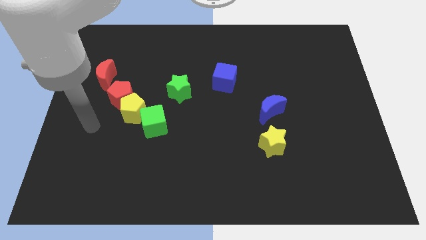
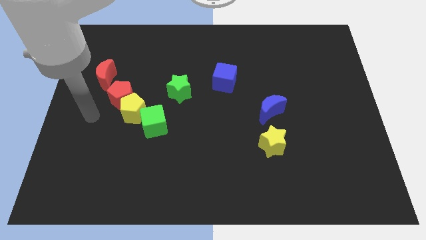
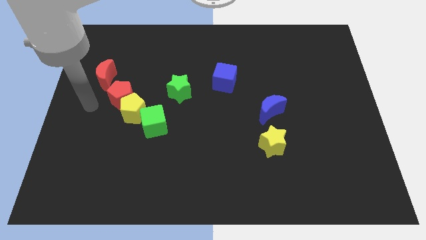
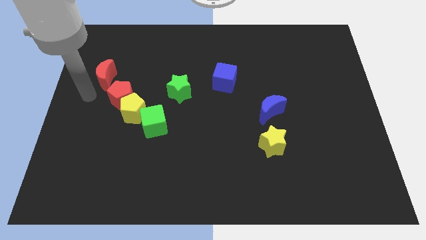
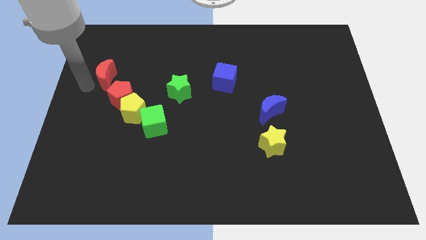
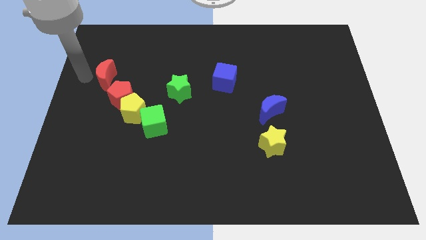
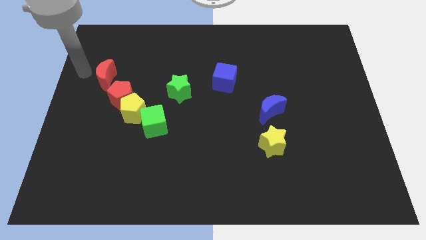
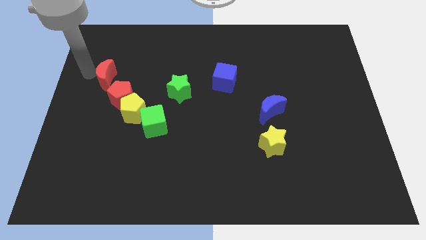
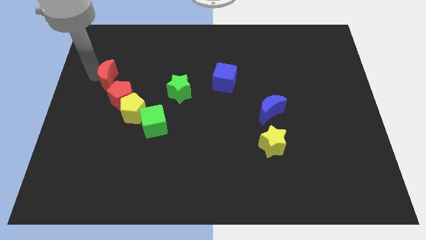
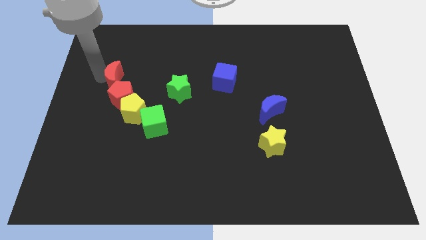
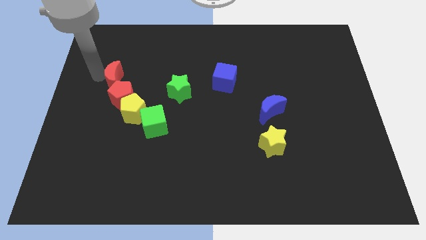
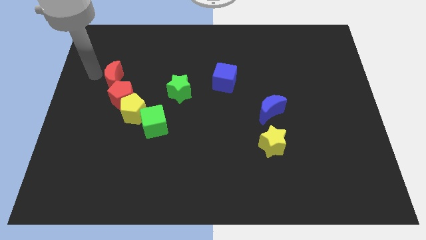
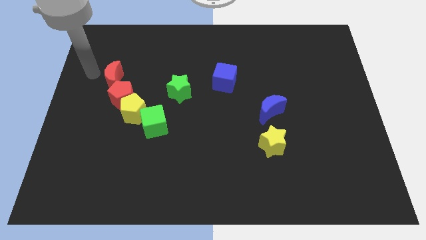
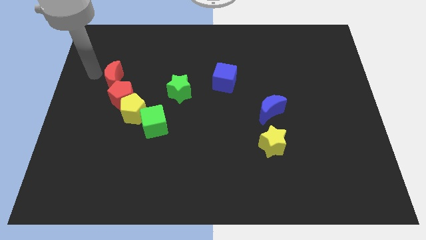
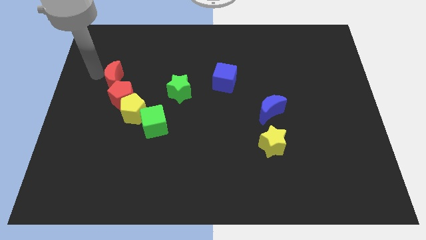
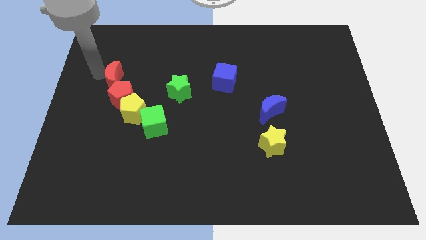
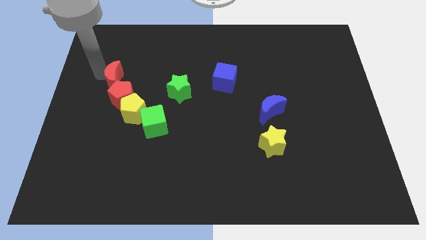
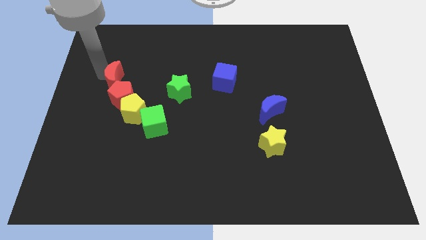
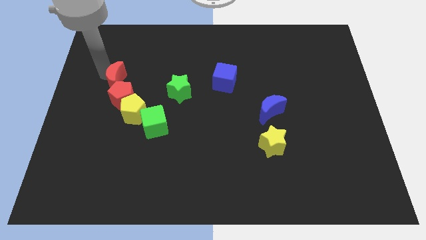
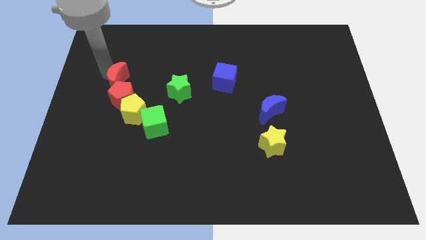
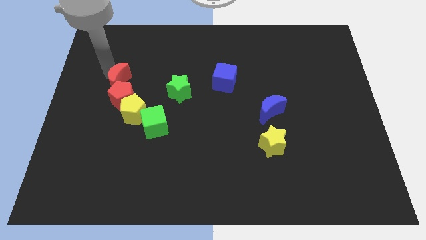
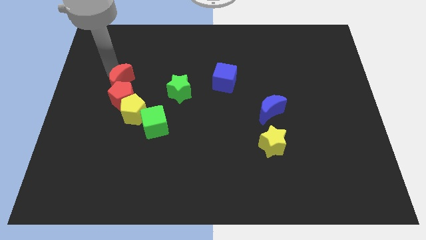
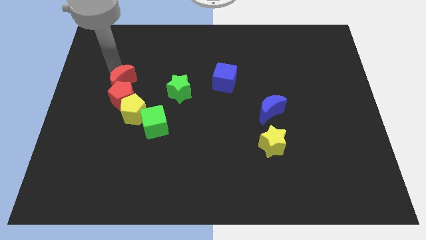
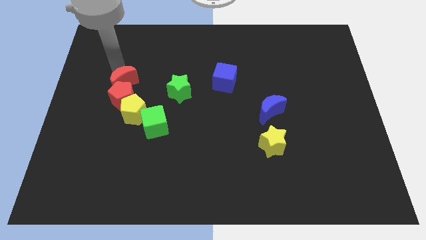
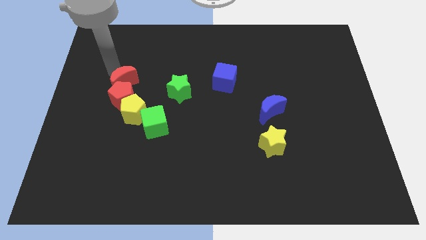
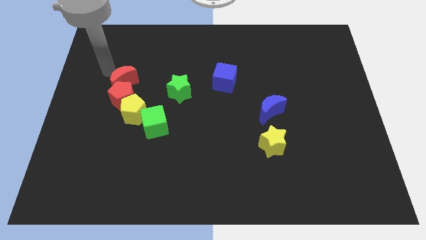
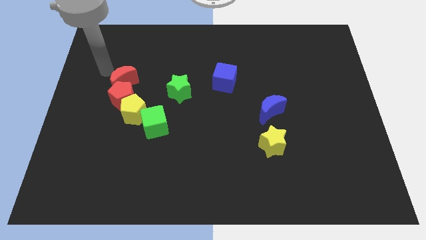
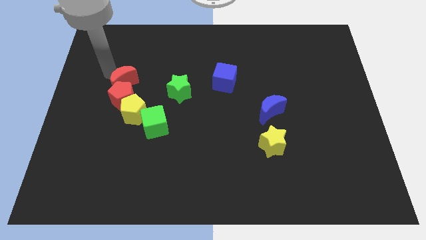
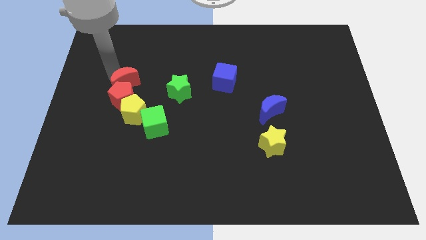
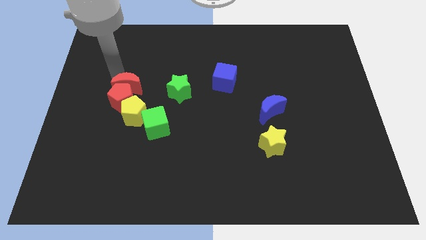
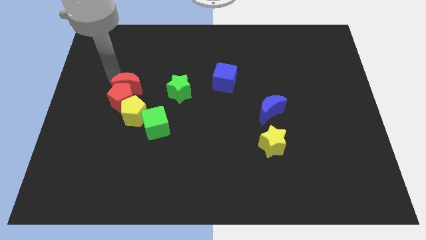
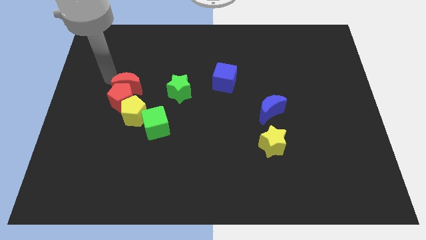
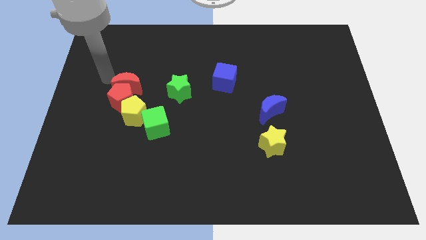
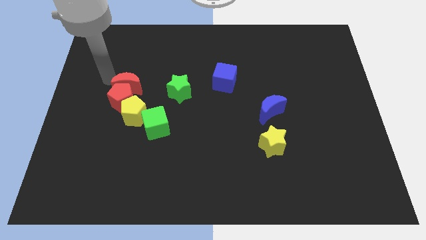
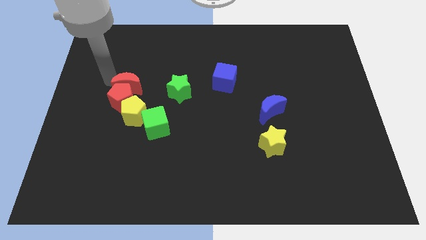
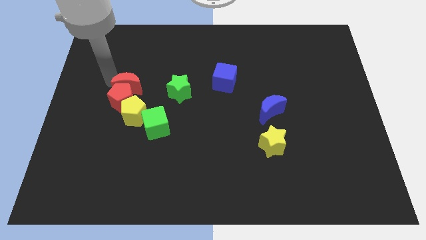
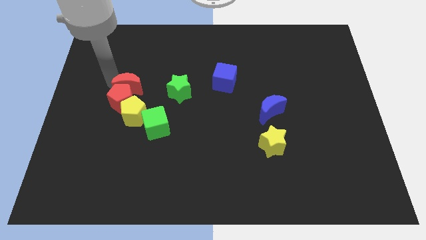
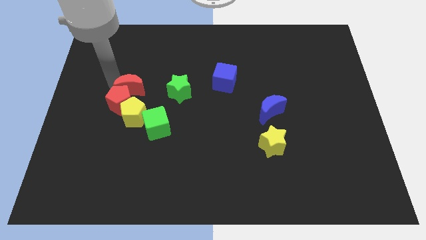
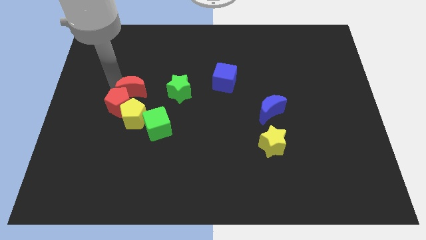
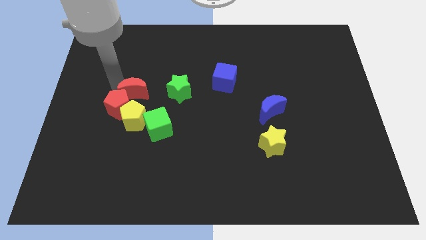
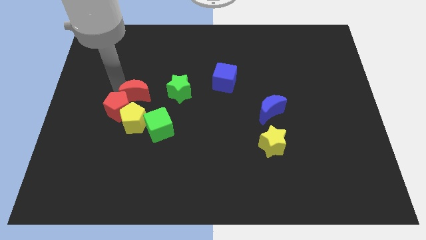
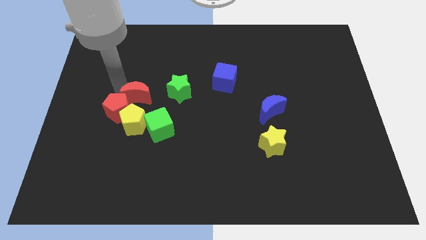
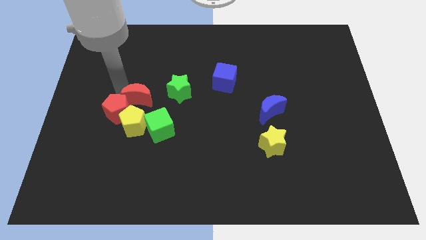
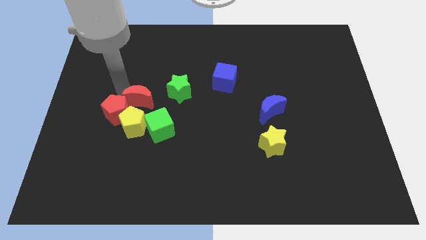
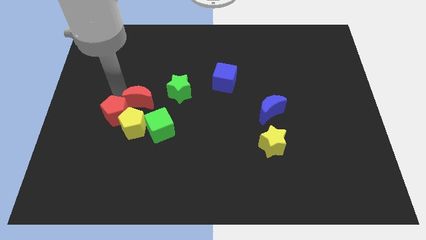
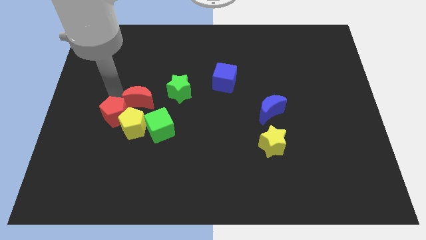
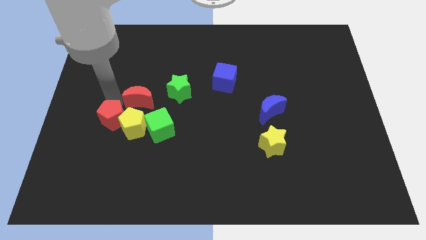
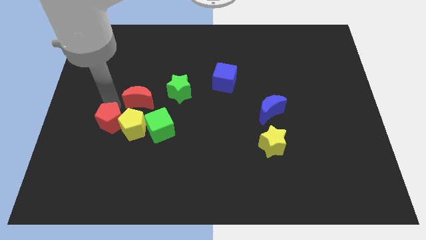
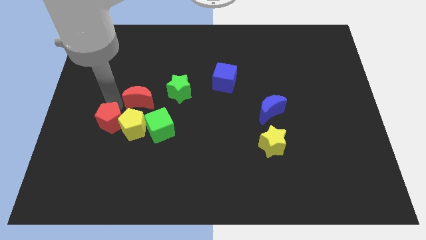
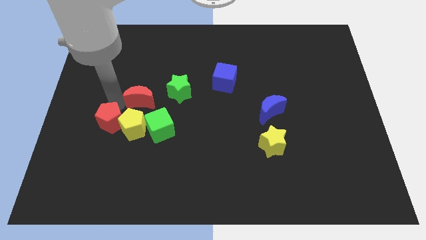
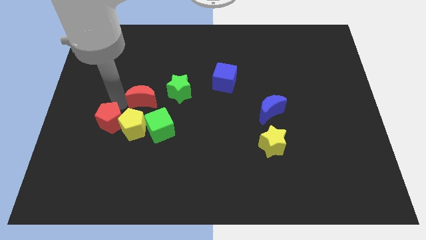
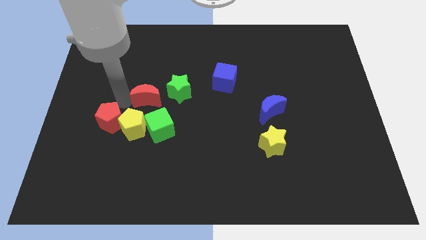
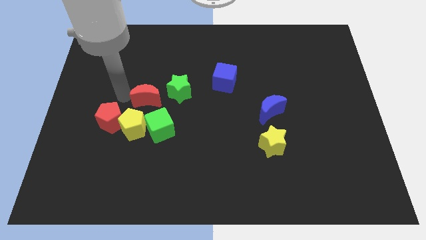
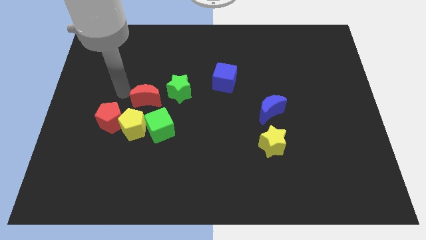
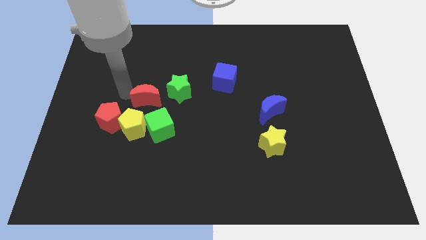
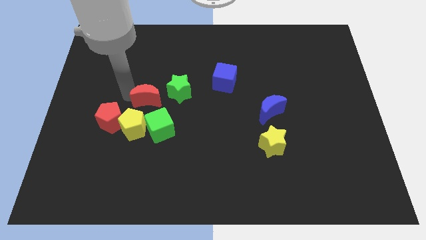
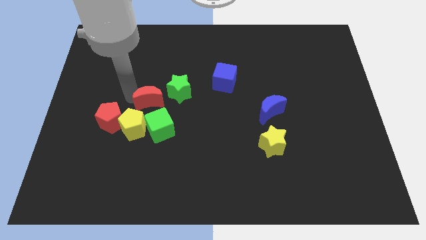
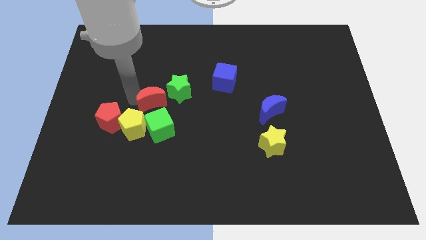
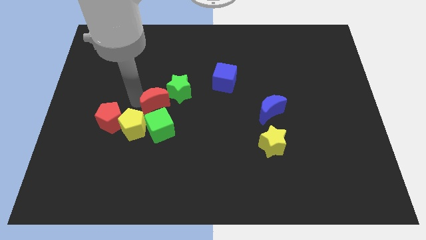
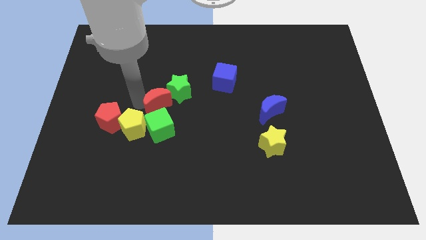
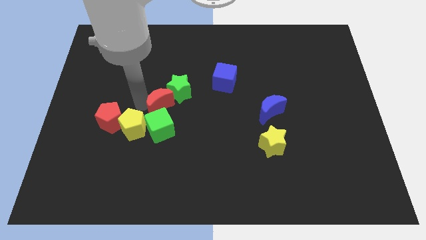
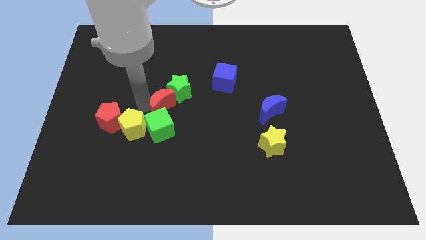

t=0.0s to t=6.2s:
put the red moon to the top right of the green cube

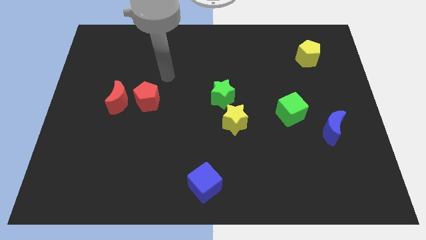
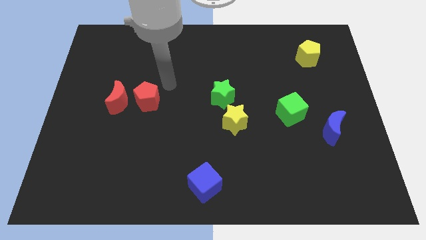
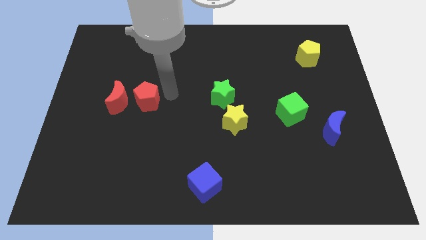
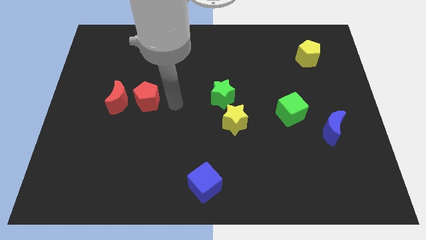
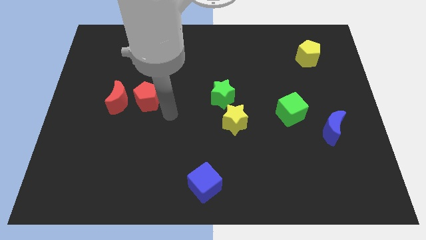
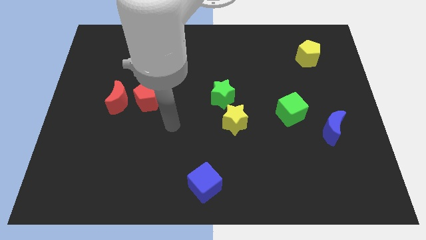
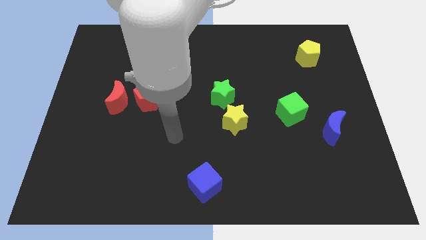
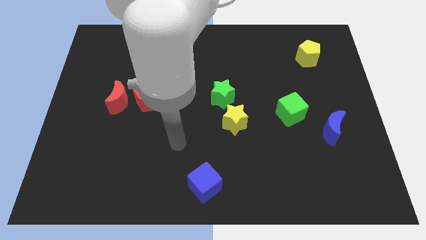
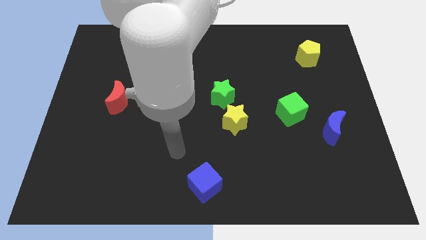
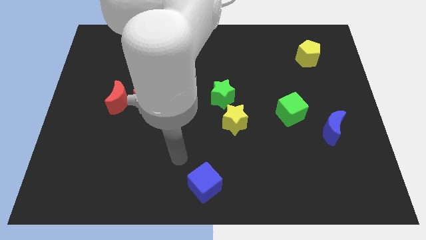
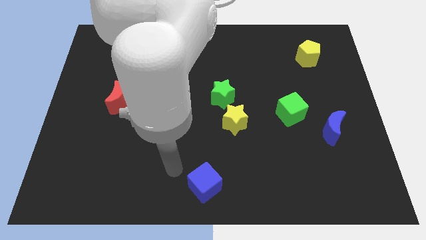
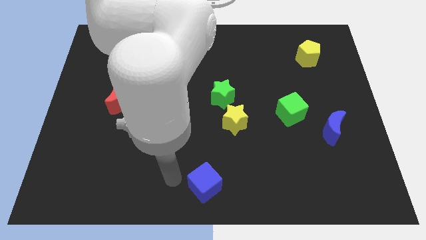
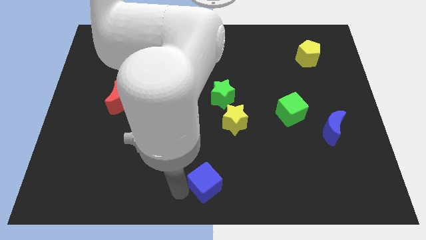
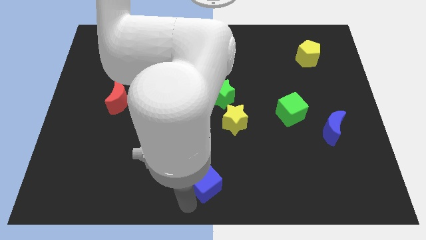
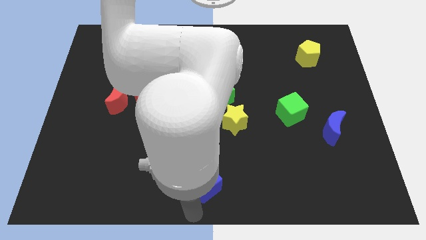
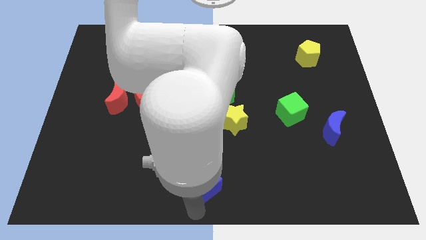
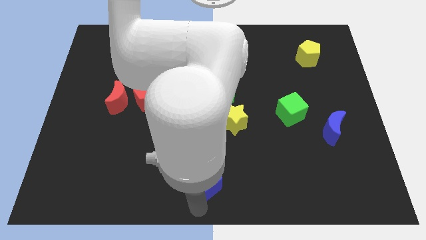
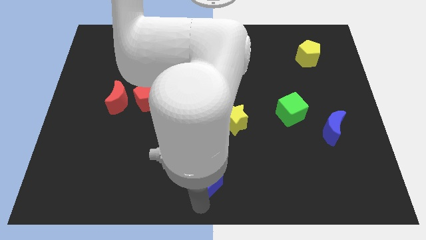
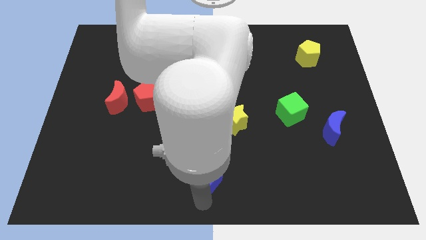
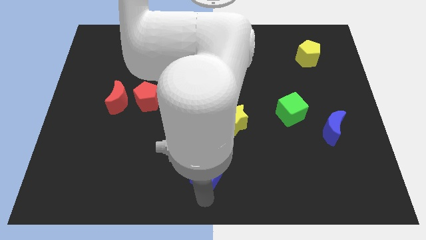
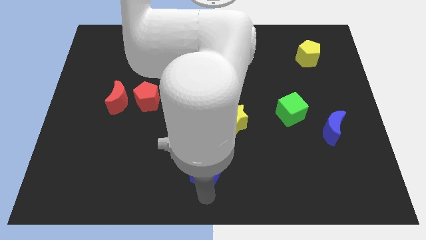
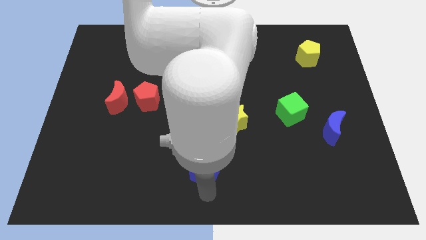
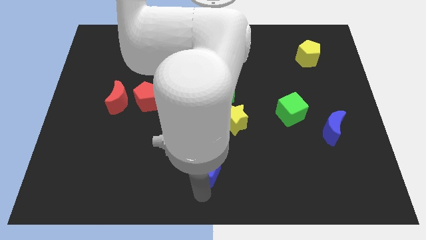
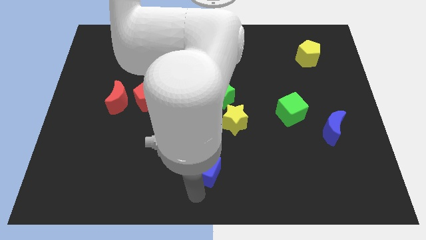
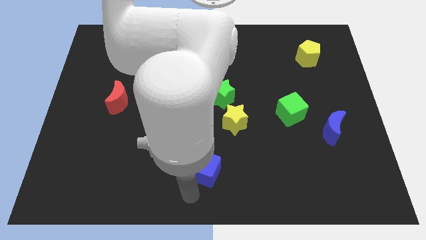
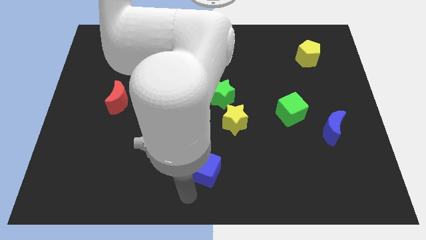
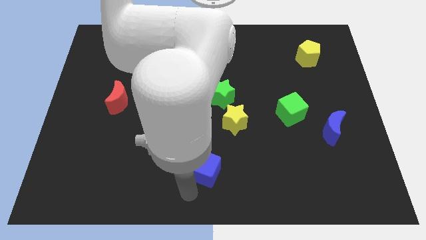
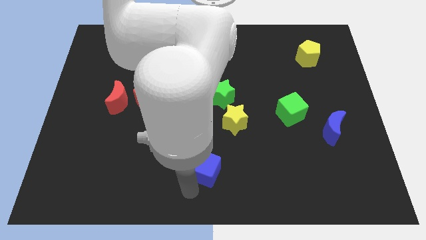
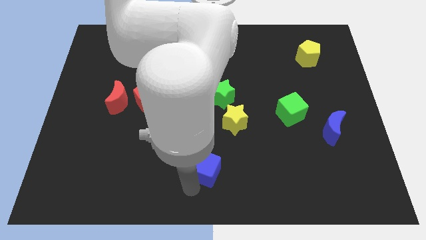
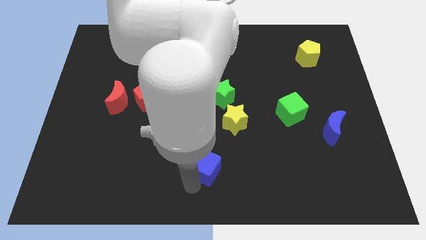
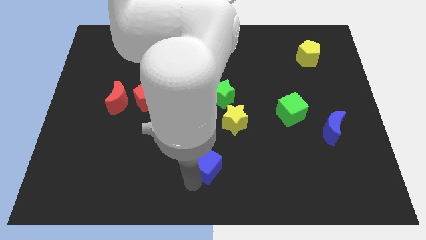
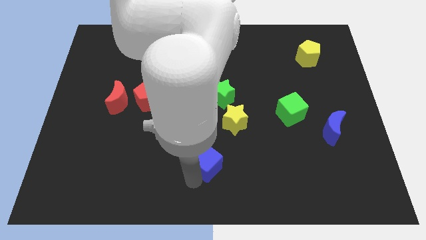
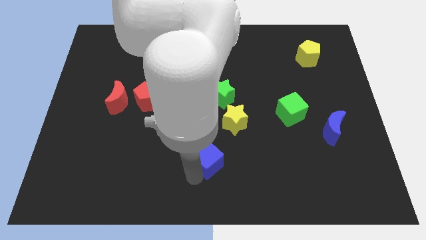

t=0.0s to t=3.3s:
push the blue cube to the bottom left side of the yellow star
